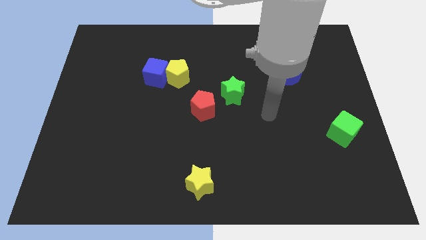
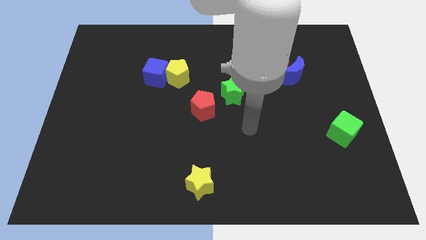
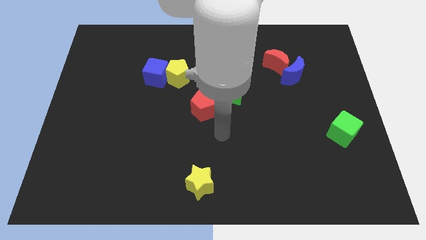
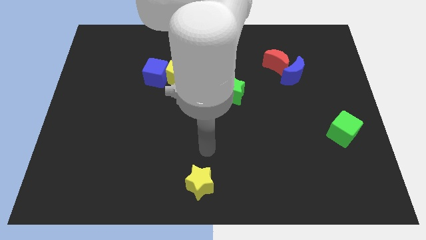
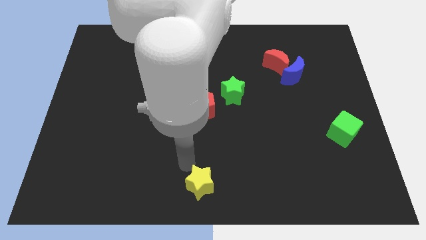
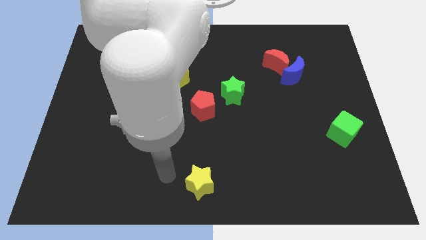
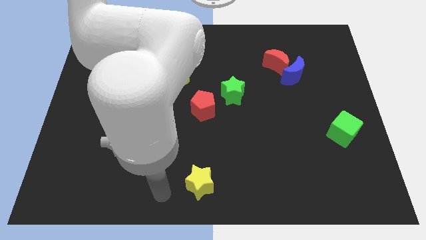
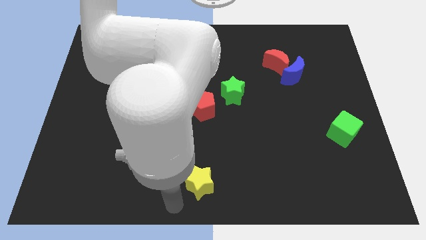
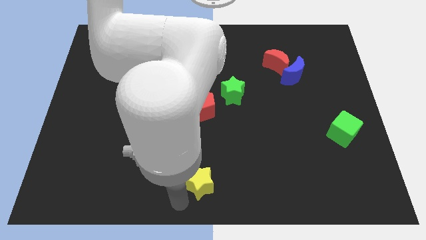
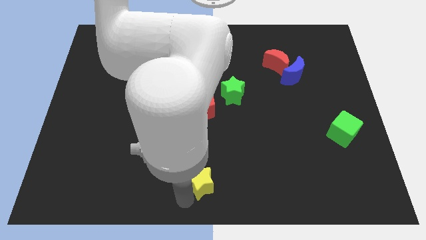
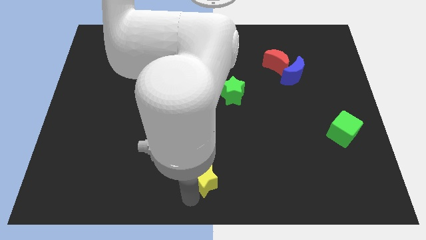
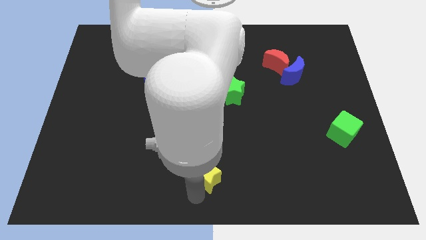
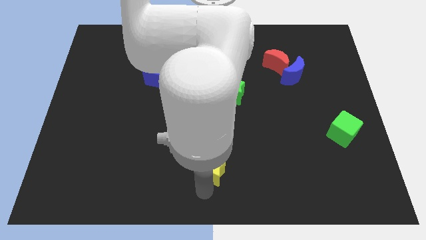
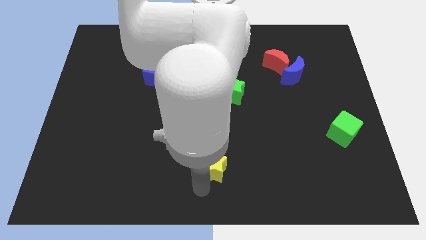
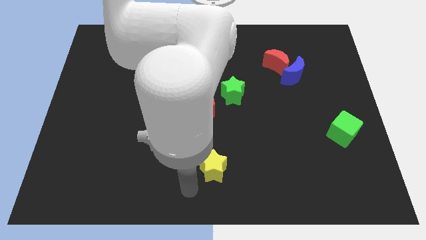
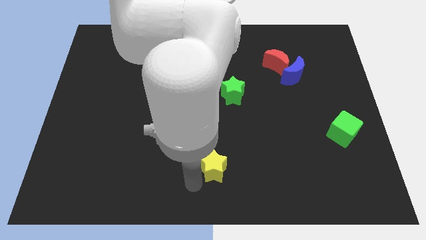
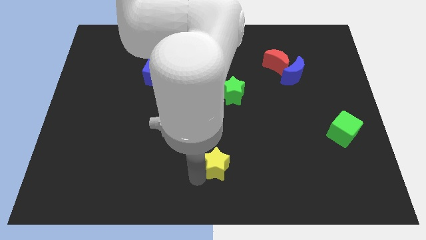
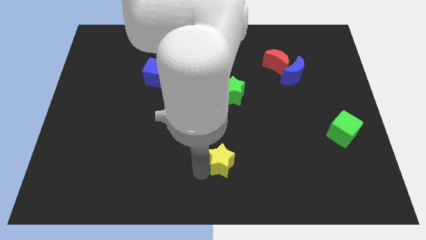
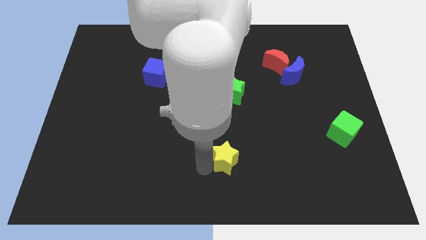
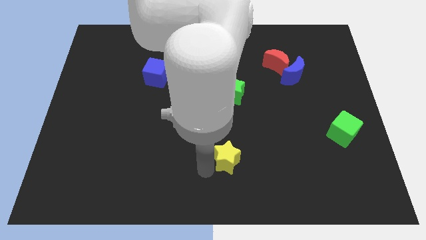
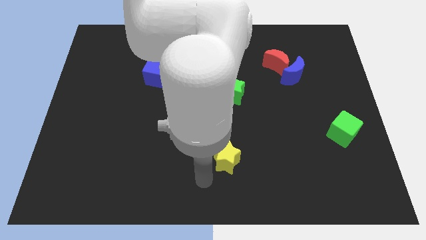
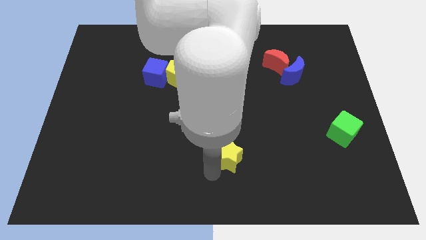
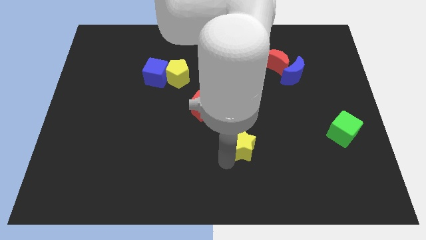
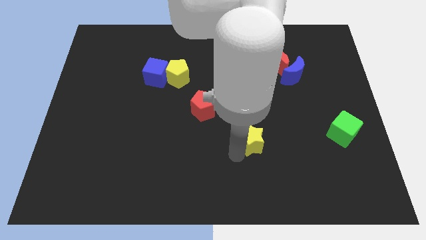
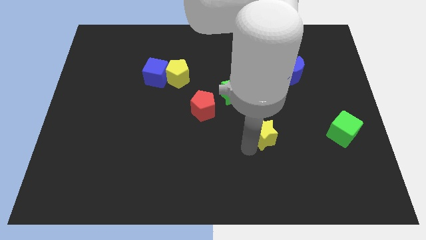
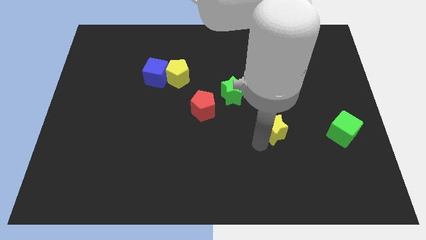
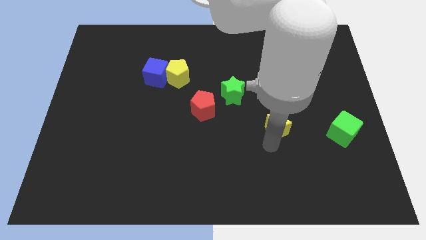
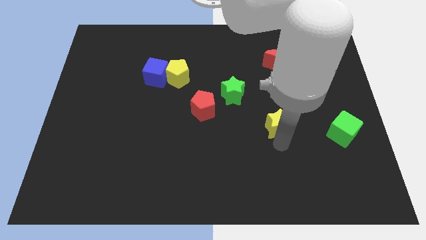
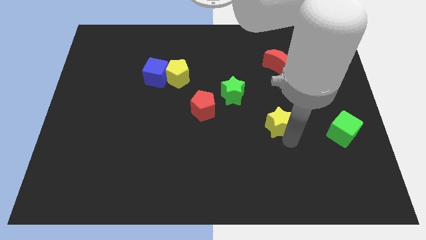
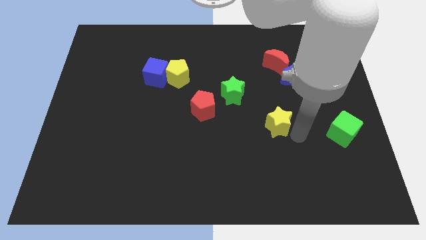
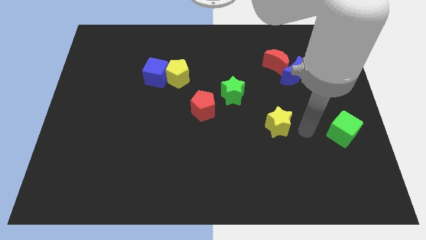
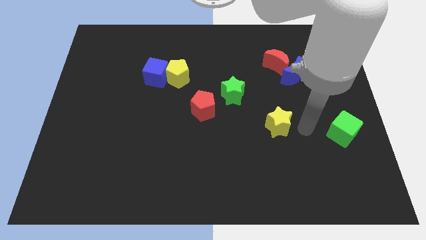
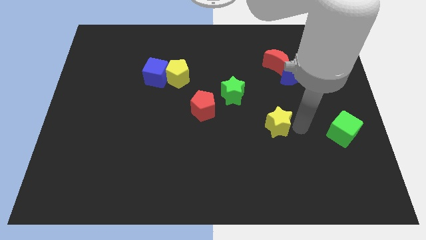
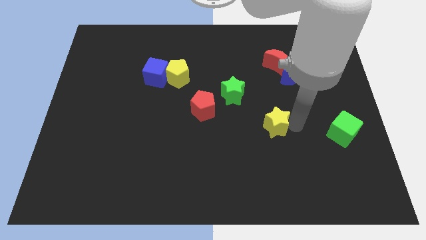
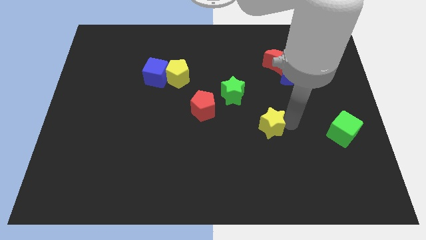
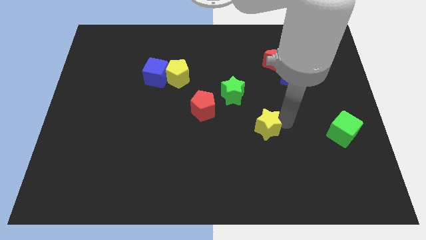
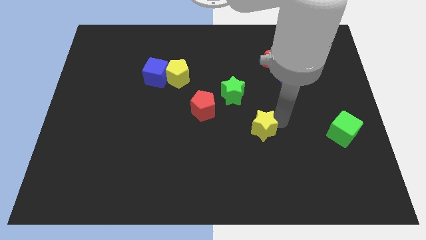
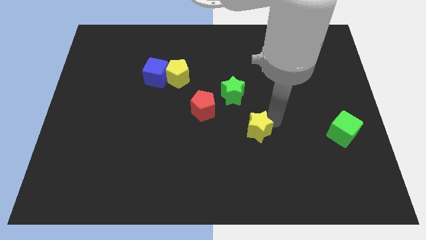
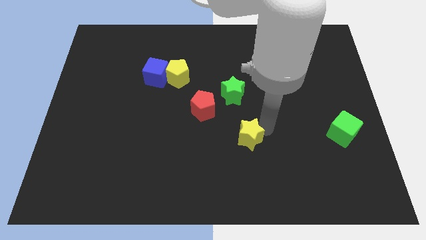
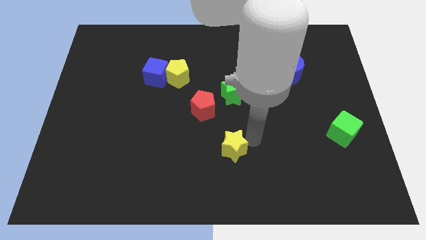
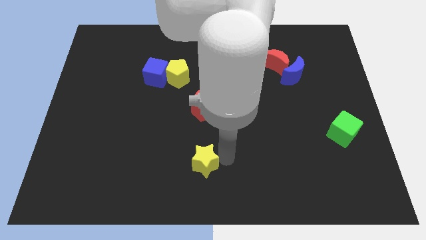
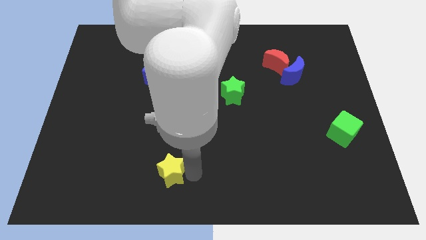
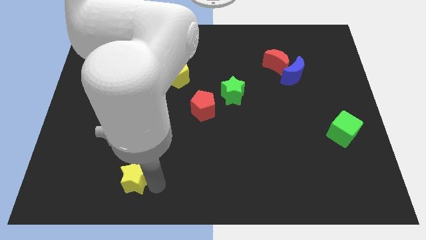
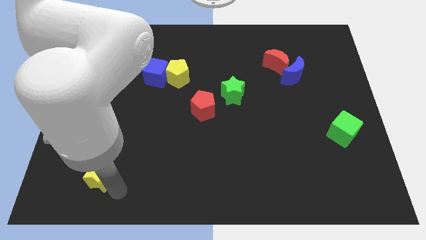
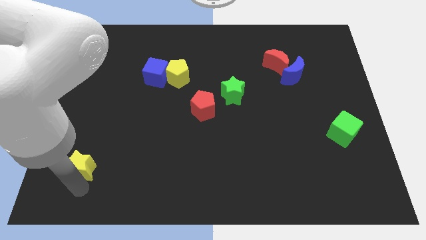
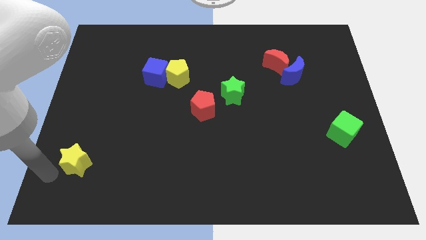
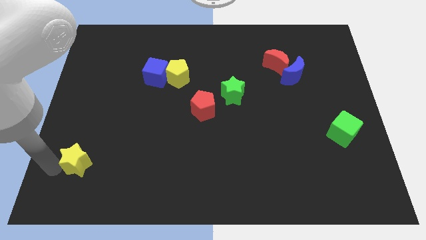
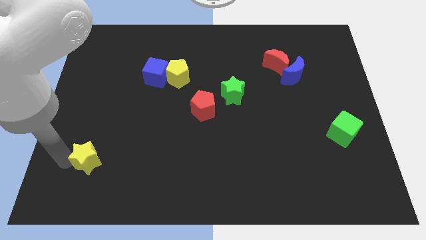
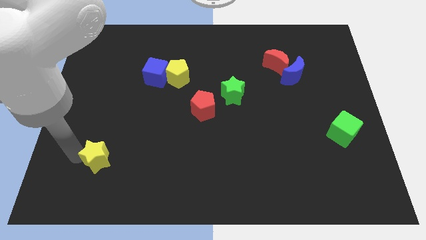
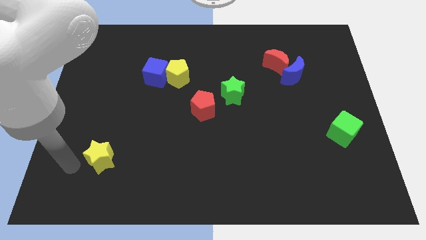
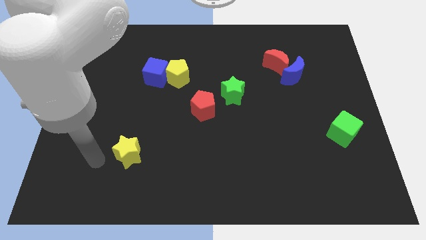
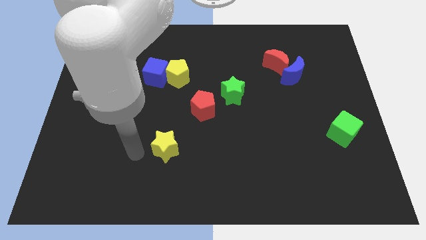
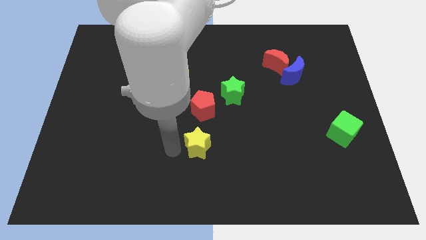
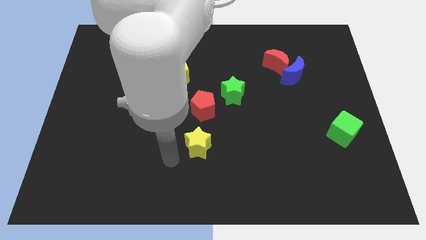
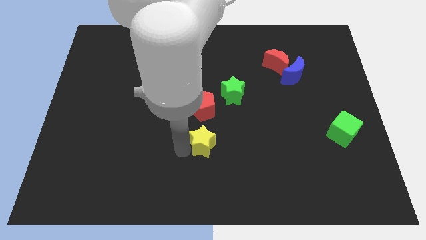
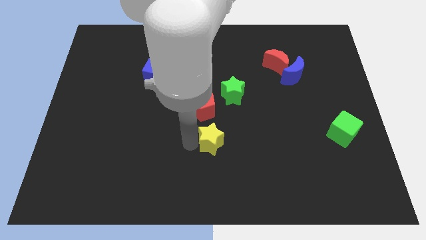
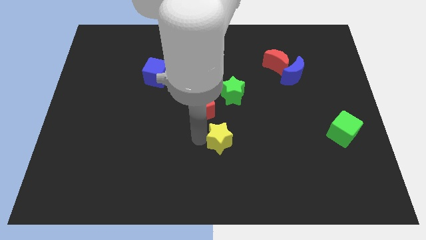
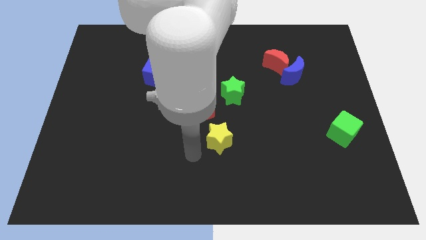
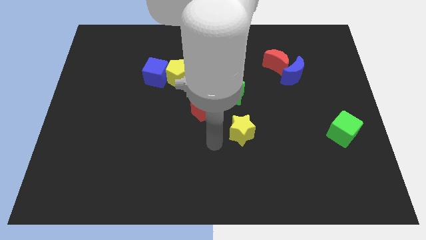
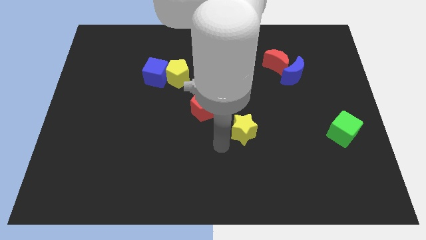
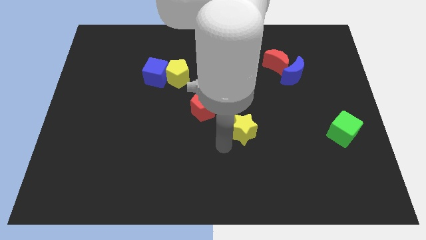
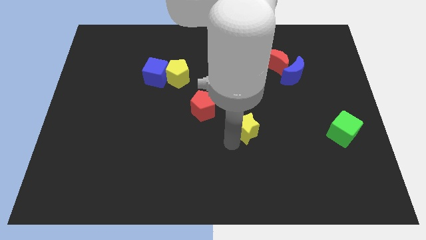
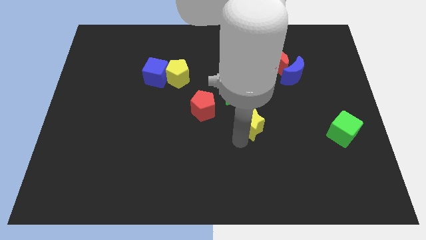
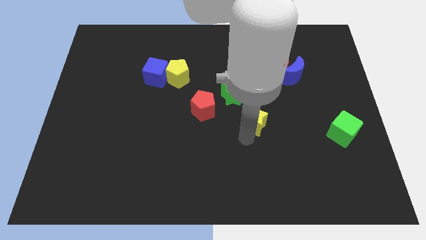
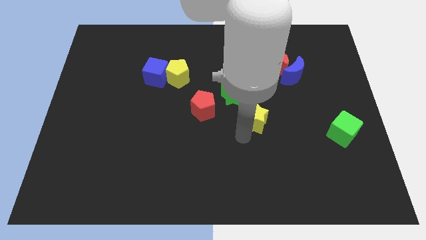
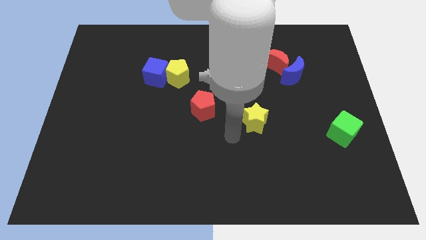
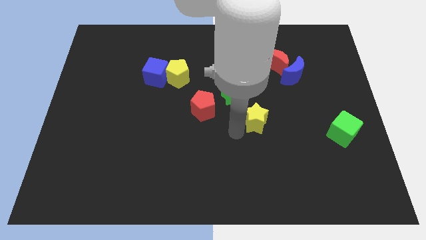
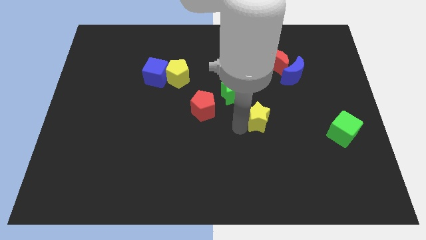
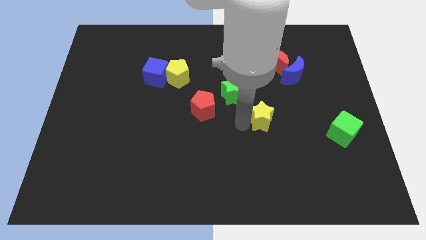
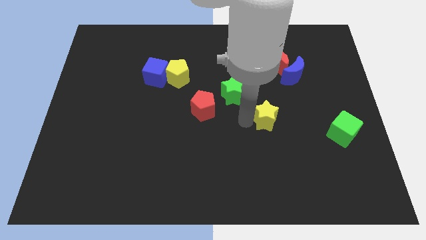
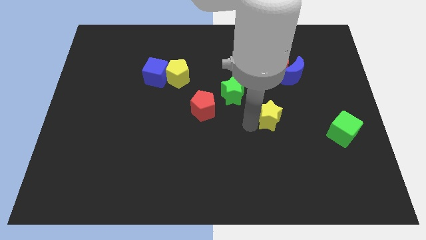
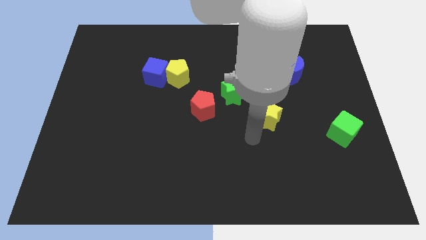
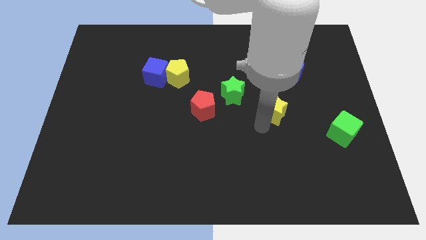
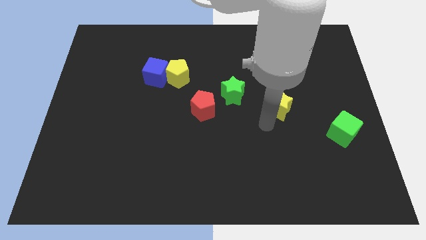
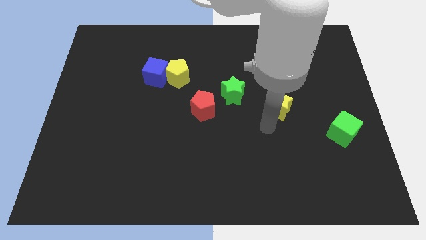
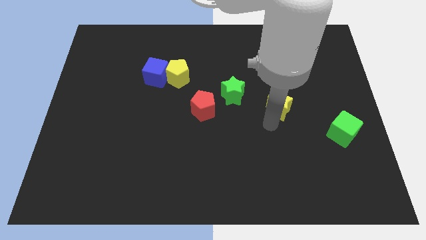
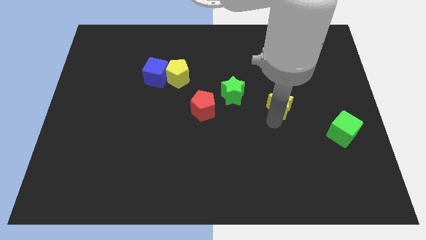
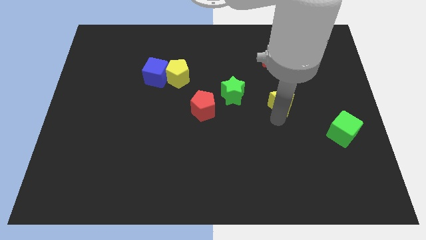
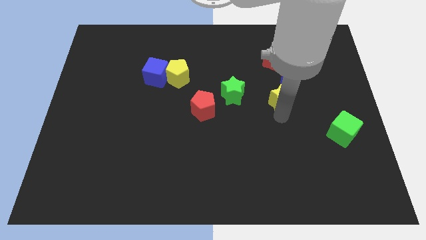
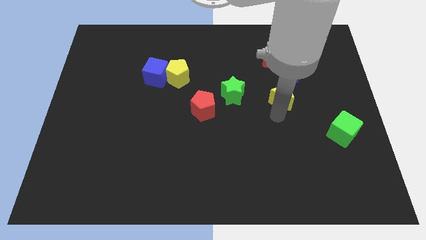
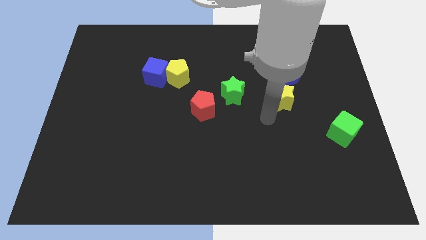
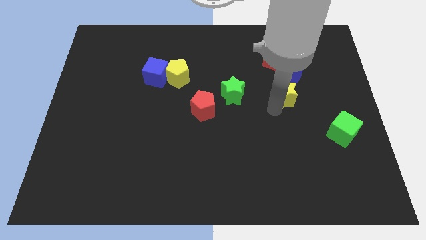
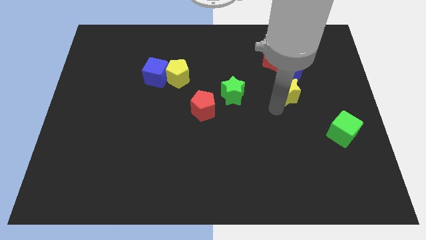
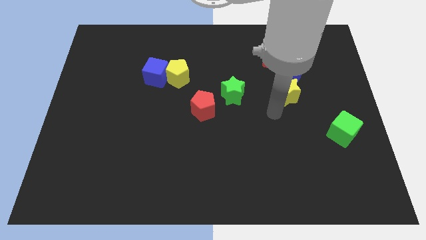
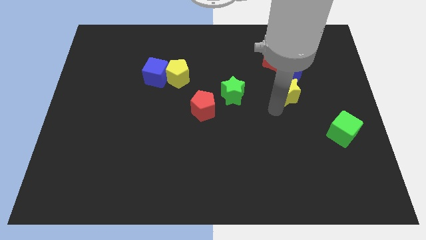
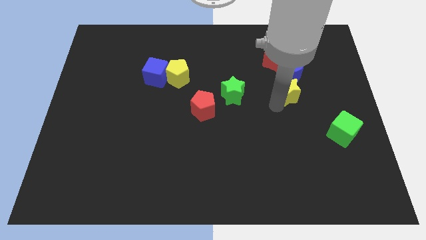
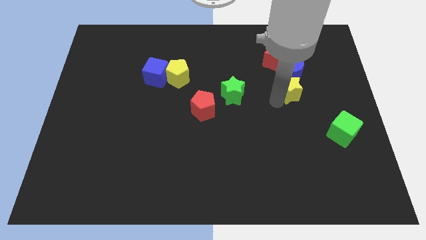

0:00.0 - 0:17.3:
put the yellow star towards the blue moon
